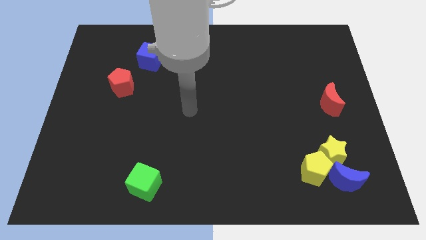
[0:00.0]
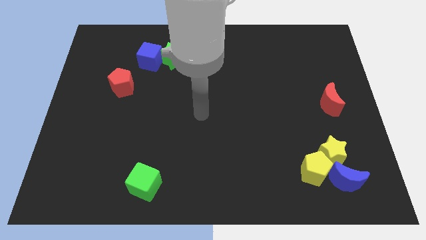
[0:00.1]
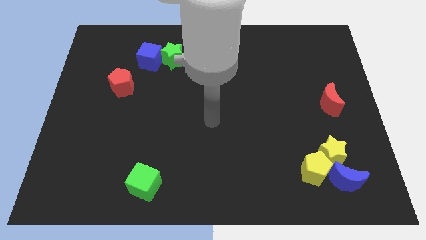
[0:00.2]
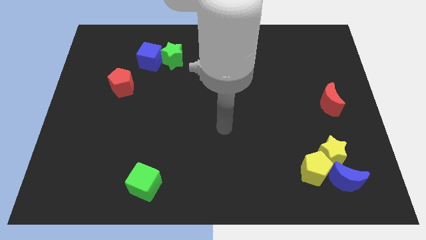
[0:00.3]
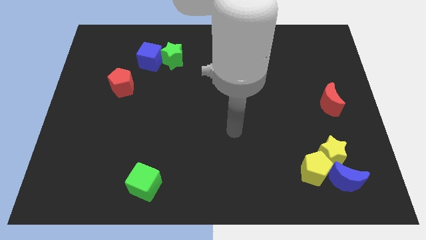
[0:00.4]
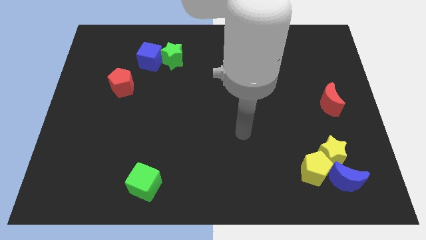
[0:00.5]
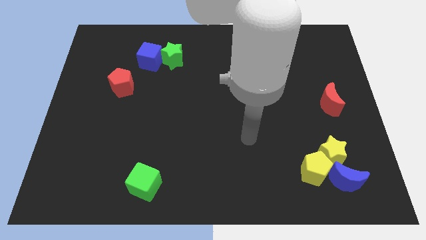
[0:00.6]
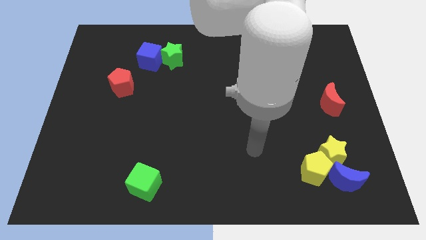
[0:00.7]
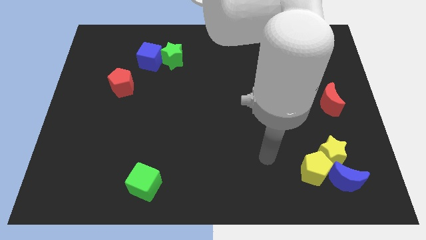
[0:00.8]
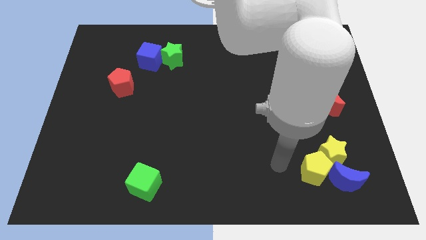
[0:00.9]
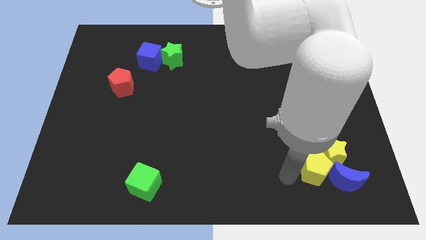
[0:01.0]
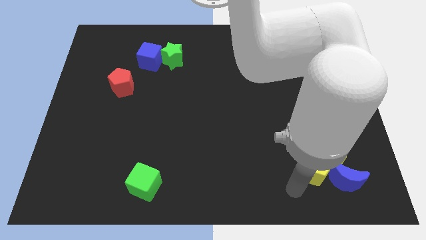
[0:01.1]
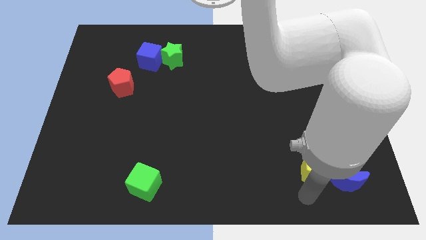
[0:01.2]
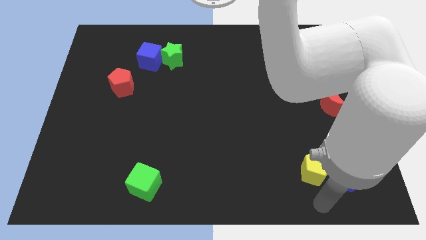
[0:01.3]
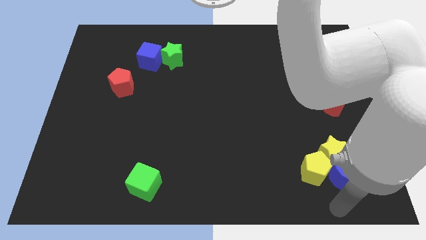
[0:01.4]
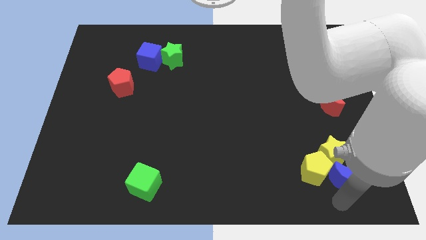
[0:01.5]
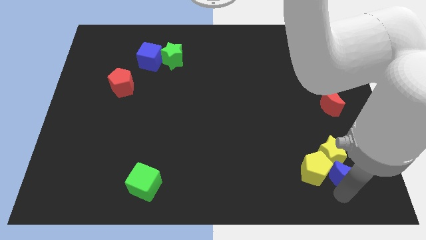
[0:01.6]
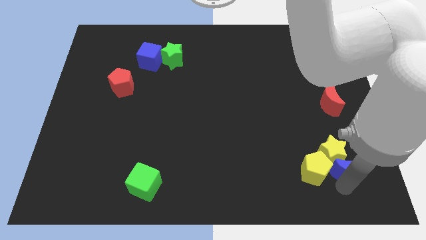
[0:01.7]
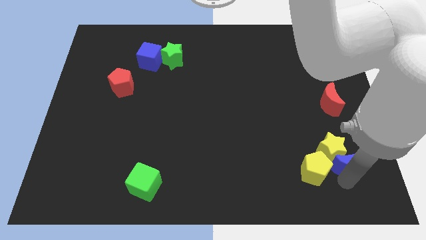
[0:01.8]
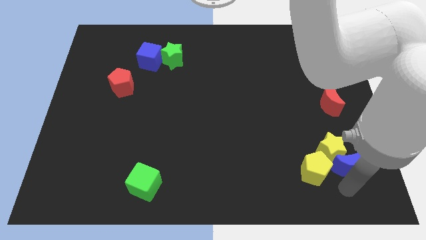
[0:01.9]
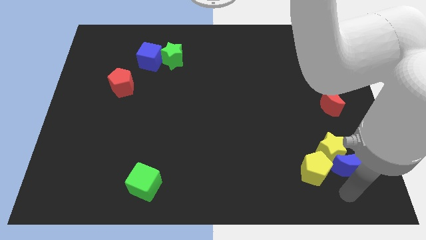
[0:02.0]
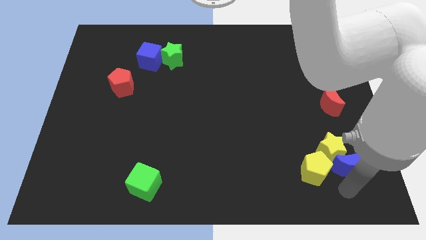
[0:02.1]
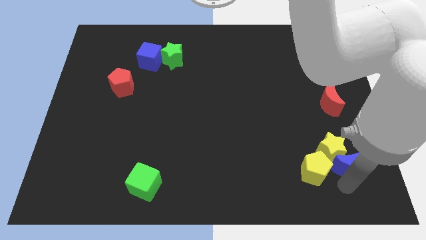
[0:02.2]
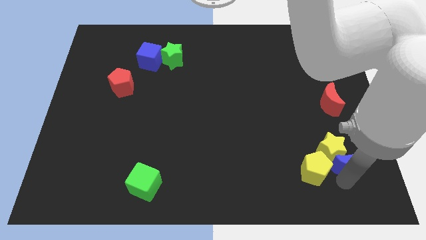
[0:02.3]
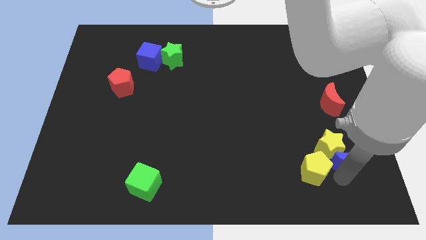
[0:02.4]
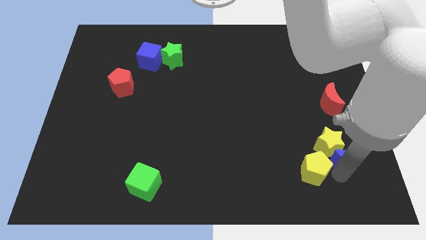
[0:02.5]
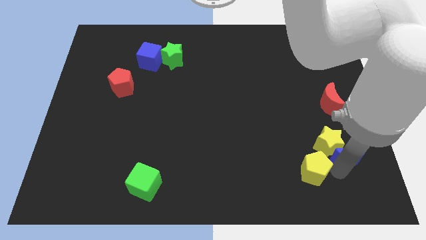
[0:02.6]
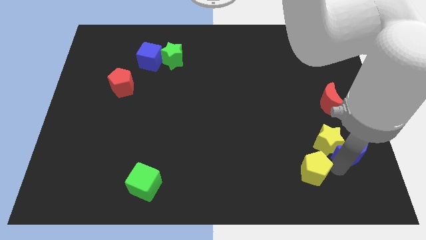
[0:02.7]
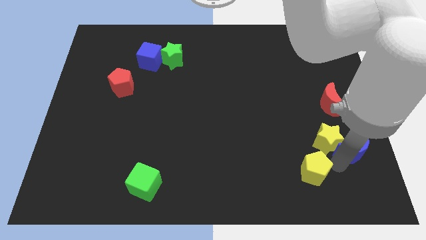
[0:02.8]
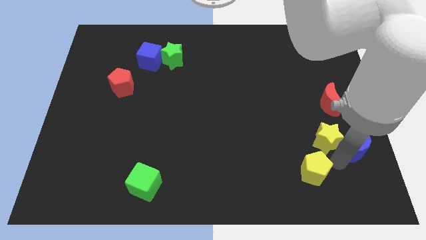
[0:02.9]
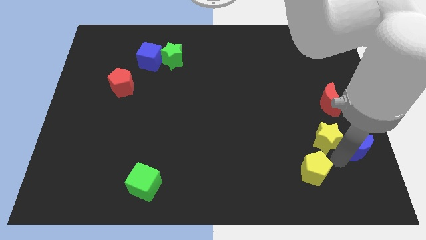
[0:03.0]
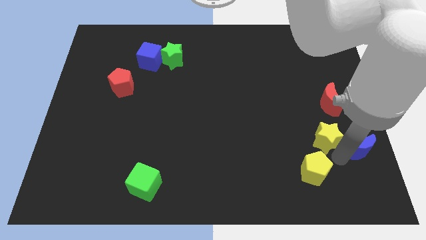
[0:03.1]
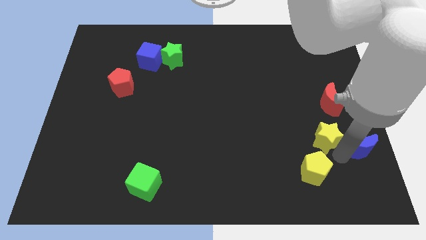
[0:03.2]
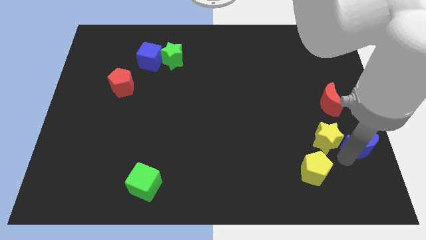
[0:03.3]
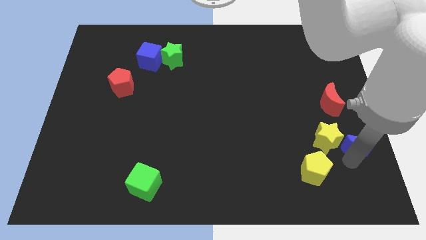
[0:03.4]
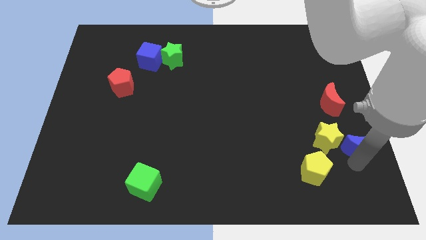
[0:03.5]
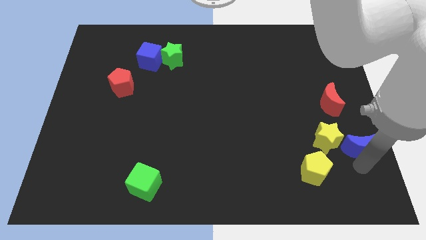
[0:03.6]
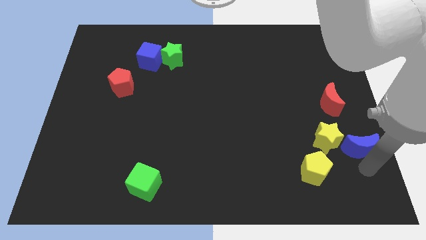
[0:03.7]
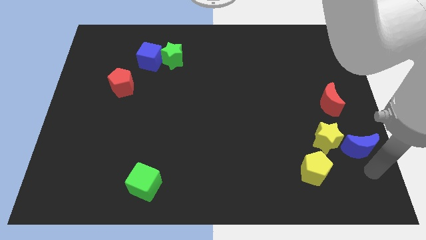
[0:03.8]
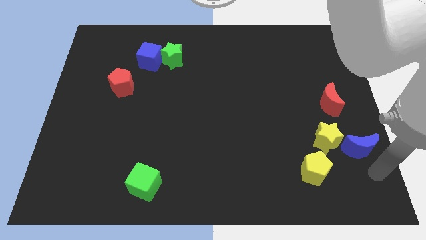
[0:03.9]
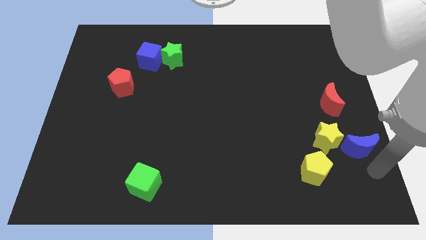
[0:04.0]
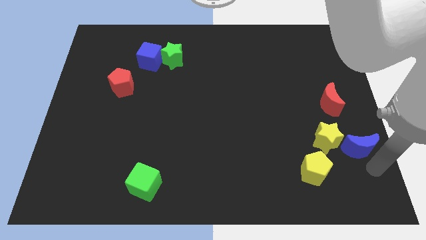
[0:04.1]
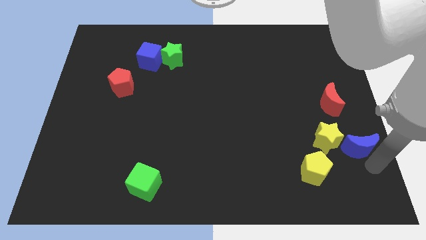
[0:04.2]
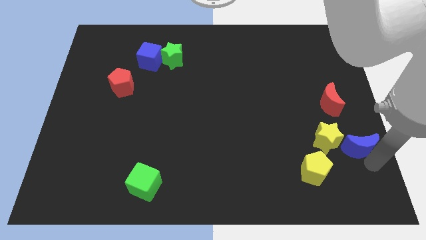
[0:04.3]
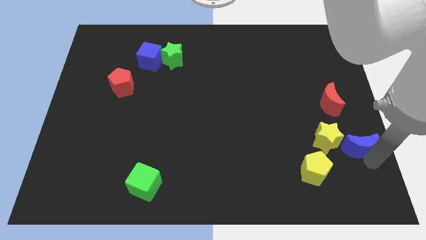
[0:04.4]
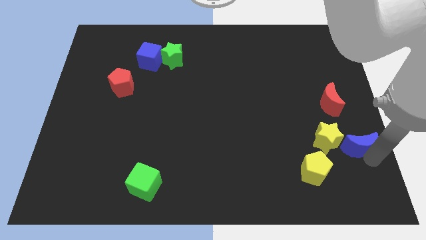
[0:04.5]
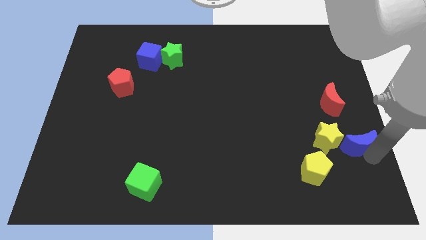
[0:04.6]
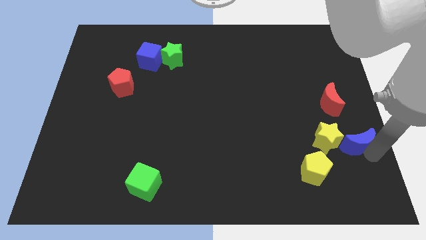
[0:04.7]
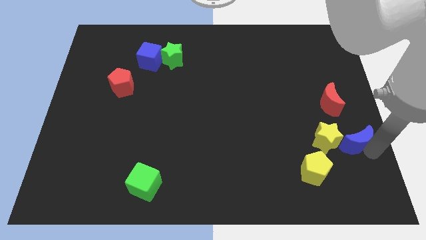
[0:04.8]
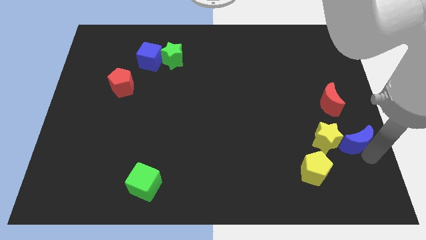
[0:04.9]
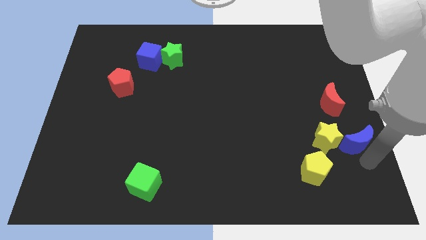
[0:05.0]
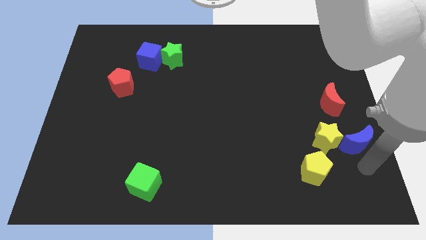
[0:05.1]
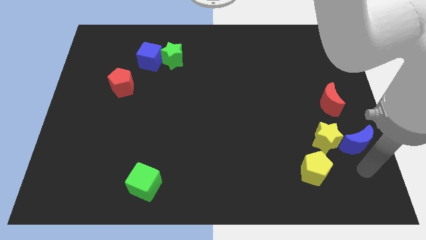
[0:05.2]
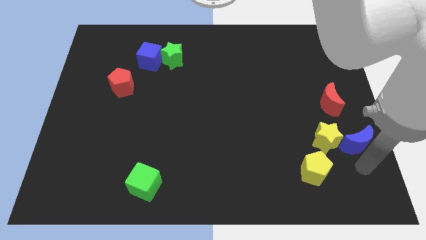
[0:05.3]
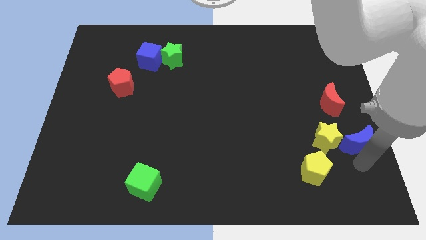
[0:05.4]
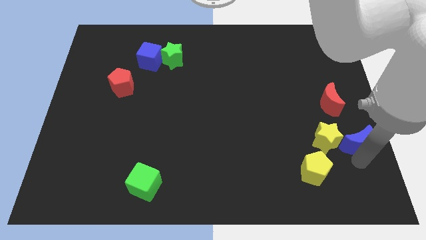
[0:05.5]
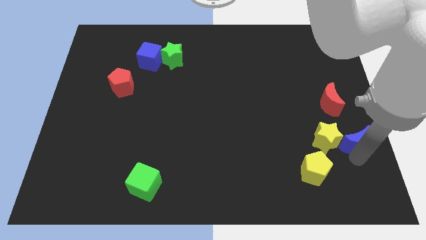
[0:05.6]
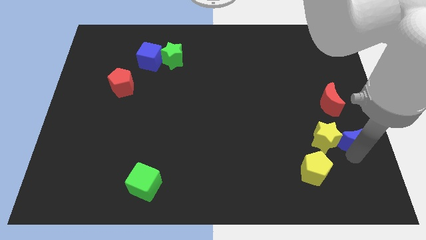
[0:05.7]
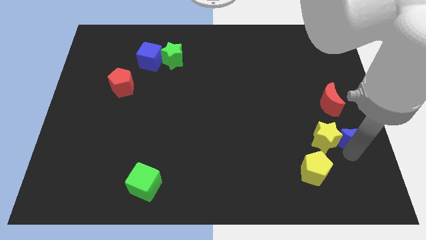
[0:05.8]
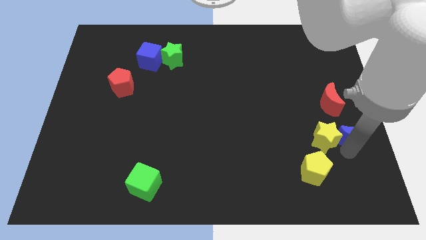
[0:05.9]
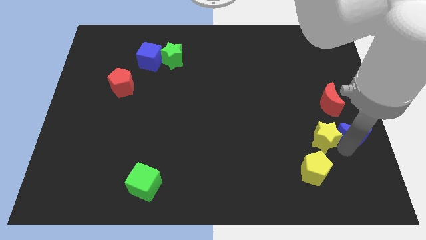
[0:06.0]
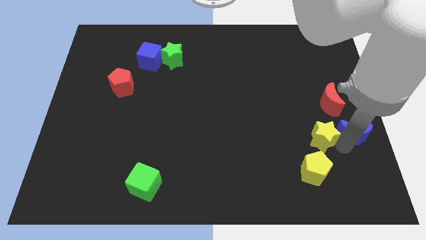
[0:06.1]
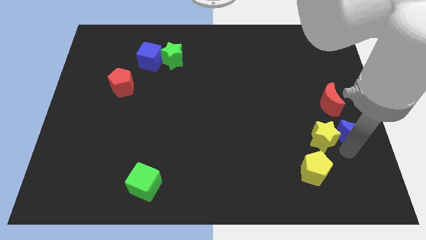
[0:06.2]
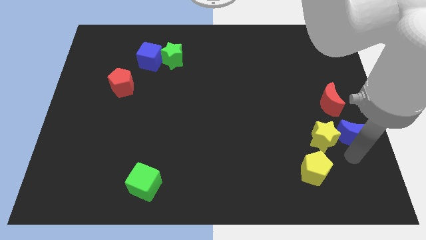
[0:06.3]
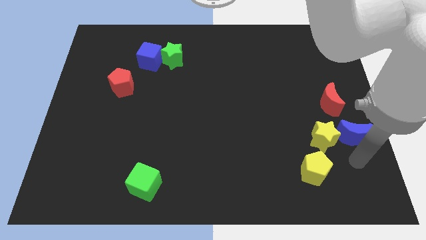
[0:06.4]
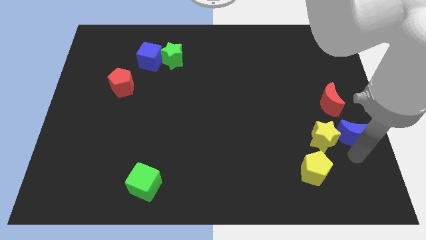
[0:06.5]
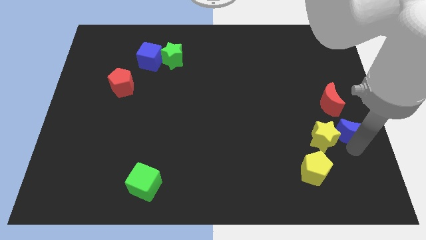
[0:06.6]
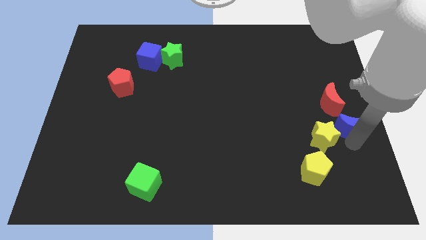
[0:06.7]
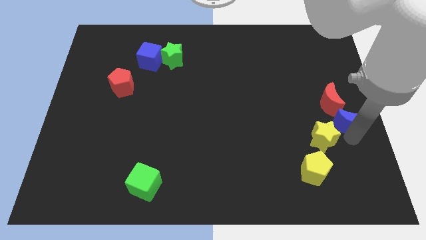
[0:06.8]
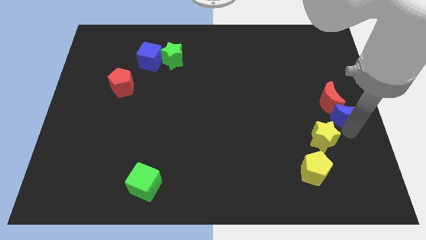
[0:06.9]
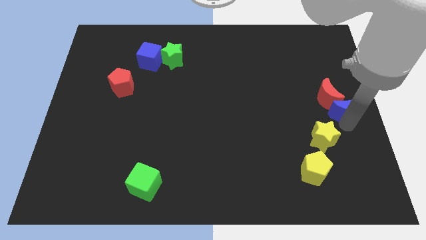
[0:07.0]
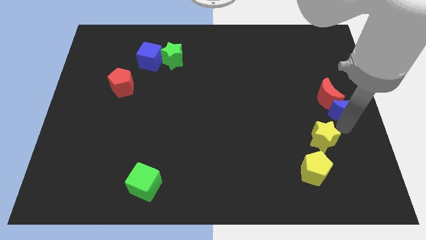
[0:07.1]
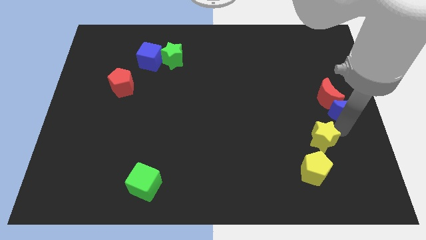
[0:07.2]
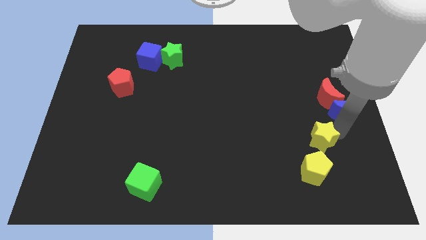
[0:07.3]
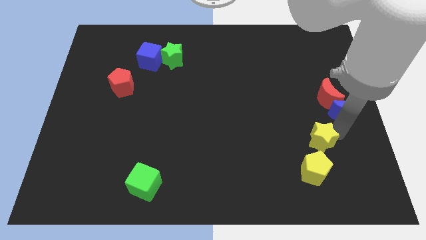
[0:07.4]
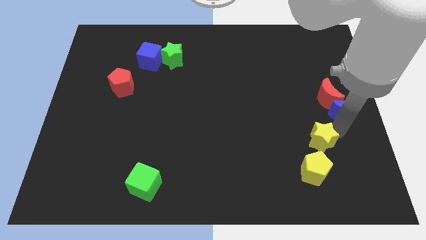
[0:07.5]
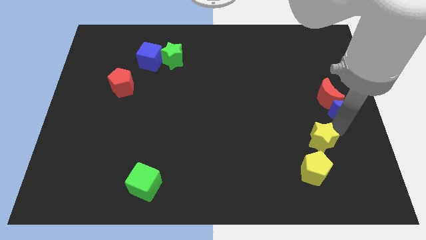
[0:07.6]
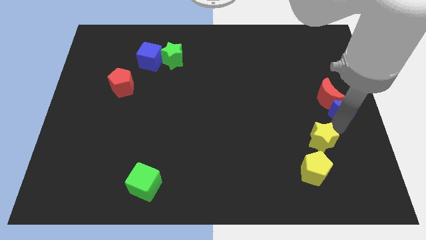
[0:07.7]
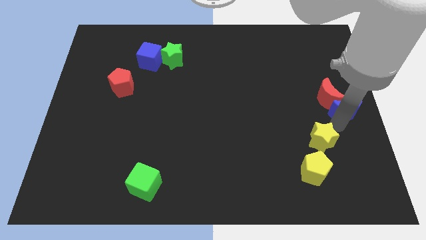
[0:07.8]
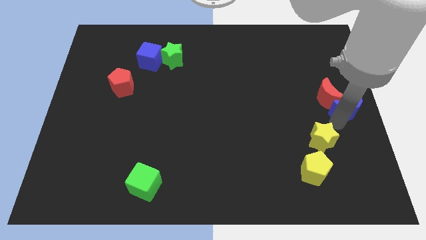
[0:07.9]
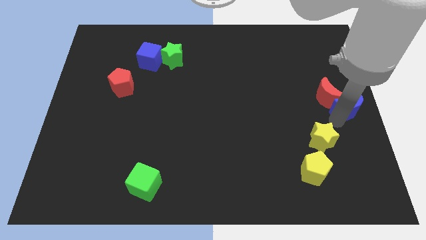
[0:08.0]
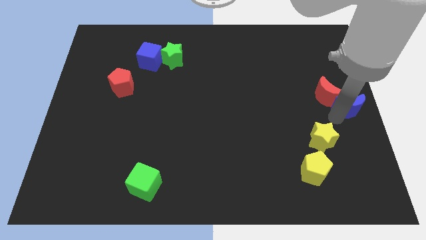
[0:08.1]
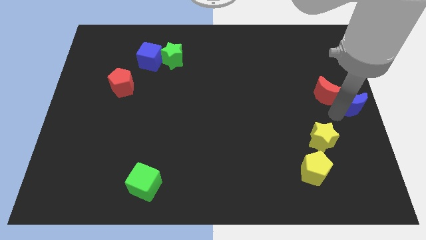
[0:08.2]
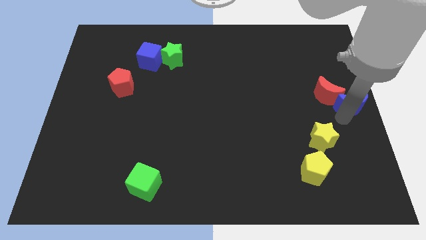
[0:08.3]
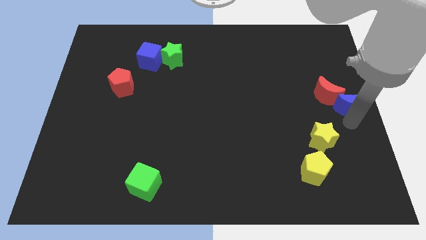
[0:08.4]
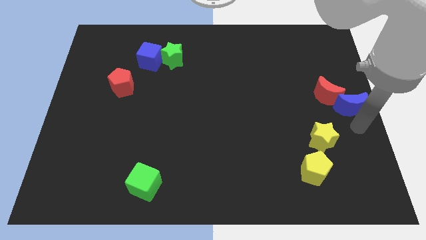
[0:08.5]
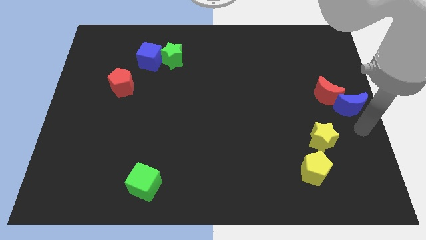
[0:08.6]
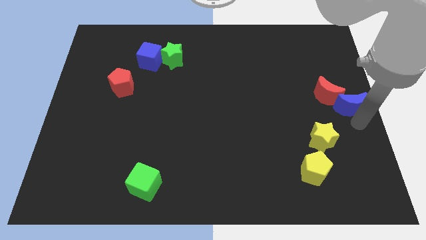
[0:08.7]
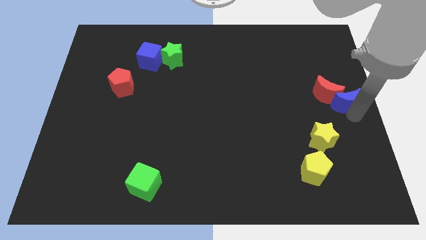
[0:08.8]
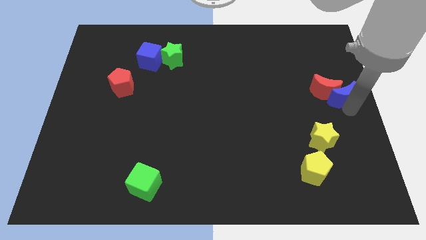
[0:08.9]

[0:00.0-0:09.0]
slide the blue moon up
